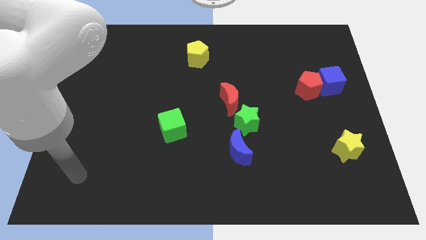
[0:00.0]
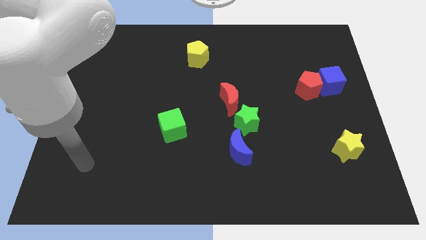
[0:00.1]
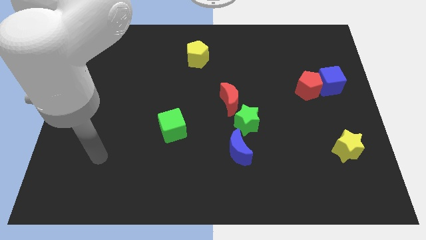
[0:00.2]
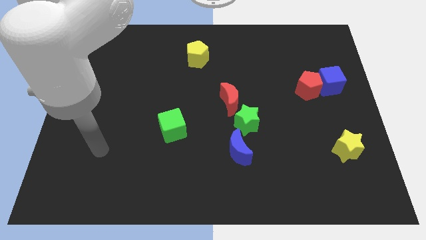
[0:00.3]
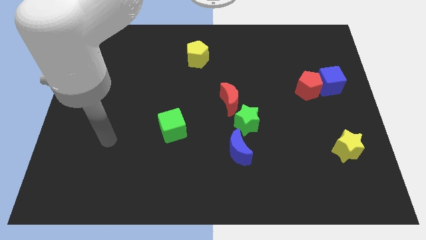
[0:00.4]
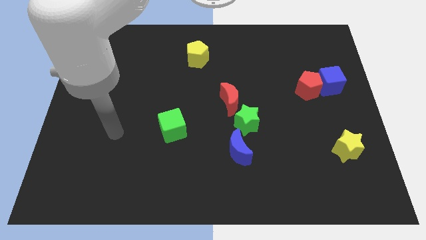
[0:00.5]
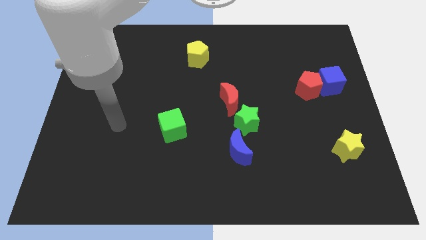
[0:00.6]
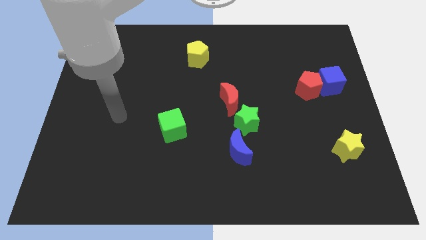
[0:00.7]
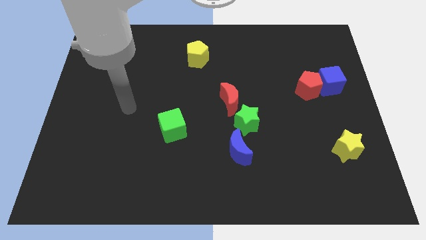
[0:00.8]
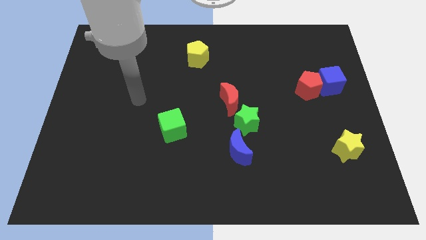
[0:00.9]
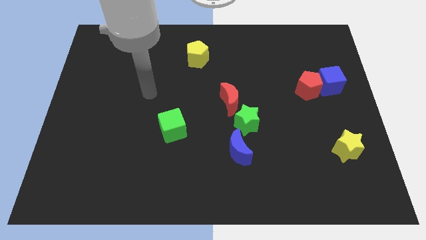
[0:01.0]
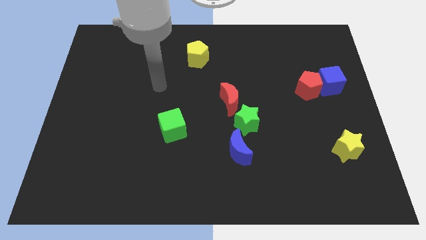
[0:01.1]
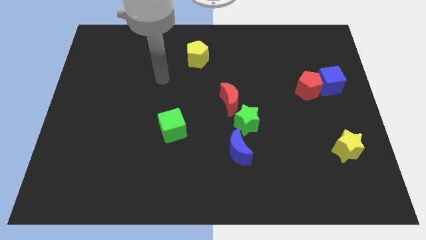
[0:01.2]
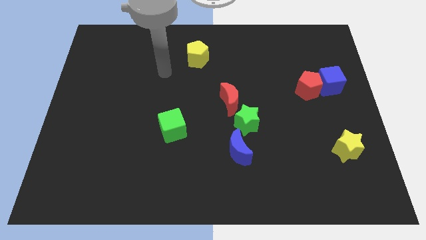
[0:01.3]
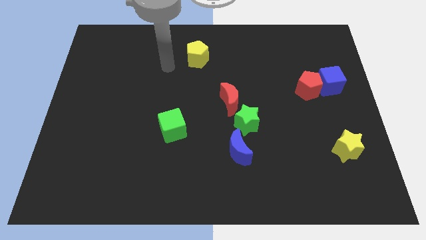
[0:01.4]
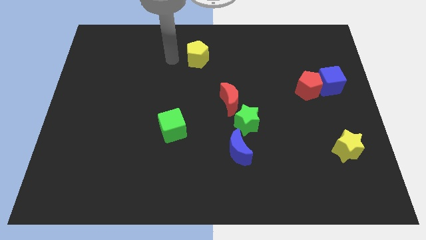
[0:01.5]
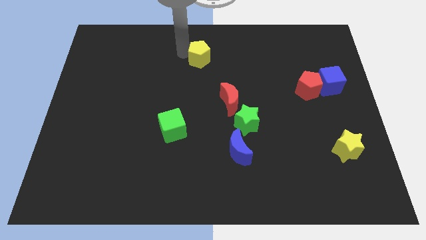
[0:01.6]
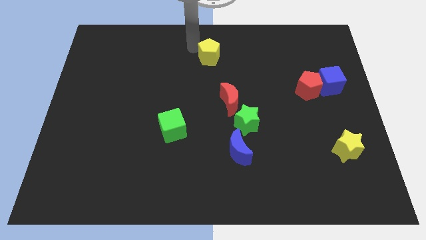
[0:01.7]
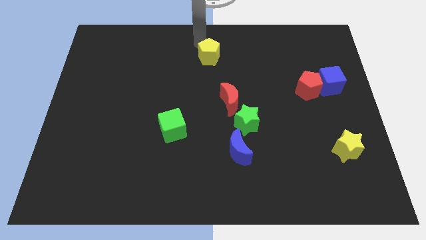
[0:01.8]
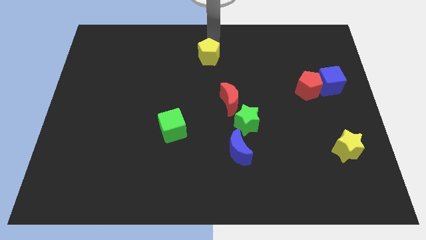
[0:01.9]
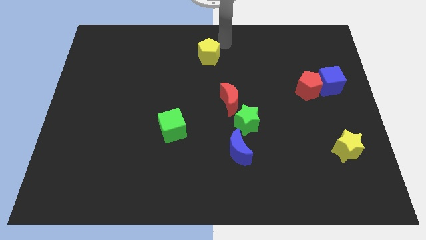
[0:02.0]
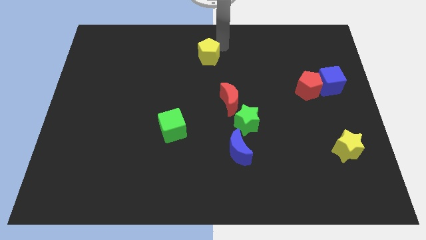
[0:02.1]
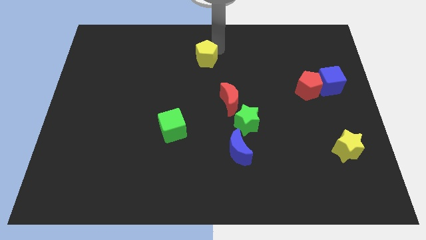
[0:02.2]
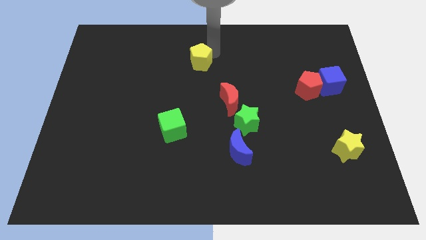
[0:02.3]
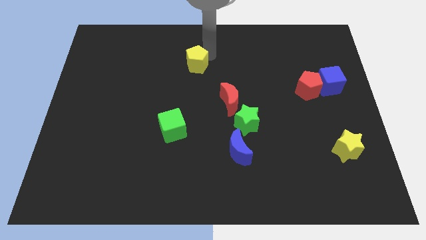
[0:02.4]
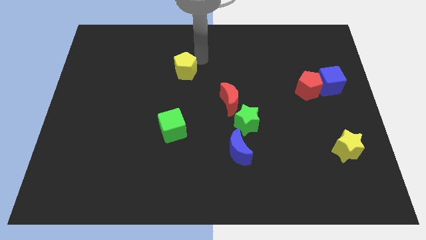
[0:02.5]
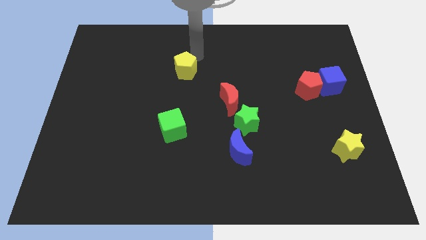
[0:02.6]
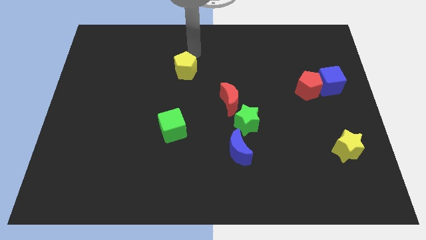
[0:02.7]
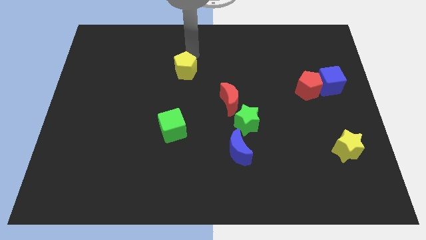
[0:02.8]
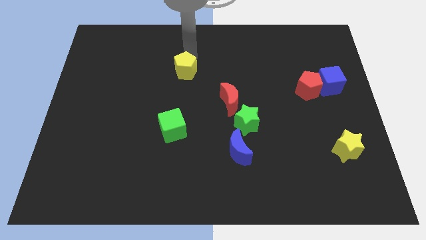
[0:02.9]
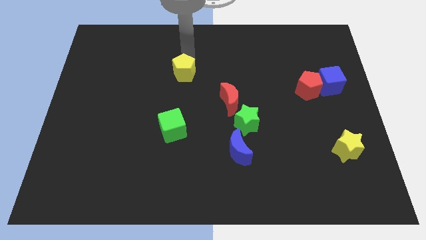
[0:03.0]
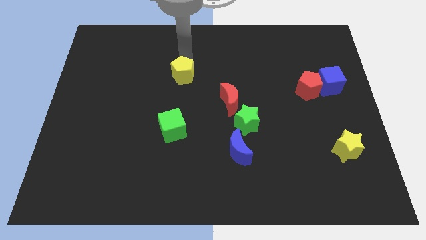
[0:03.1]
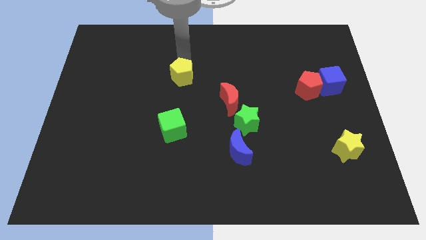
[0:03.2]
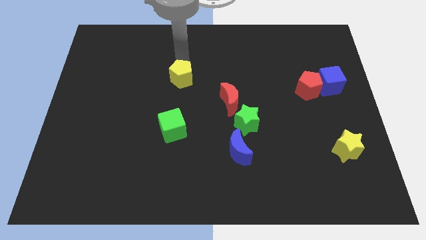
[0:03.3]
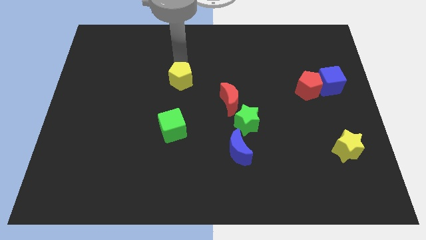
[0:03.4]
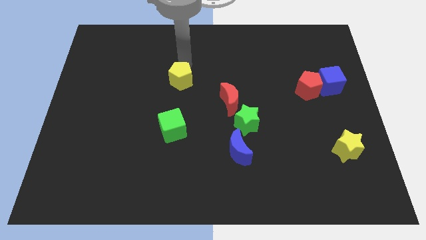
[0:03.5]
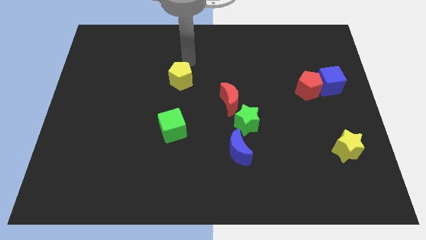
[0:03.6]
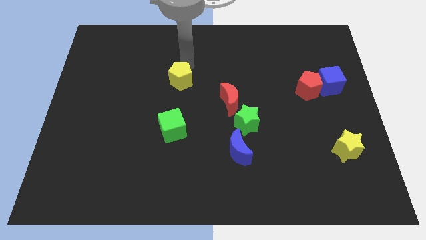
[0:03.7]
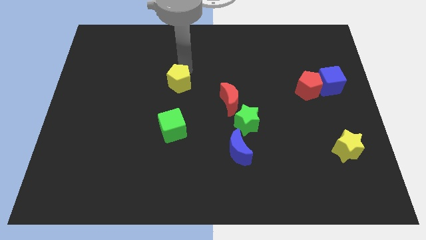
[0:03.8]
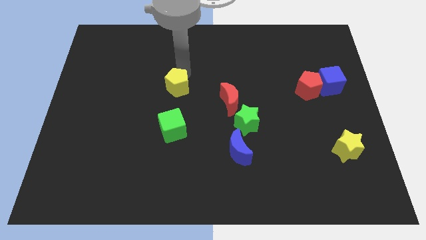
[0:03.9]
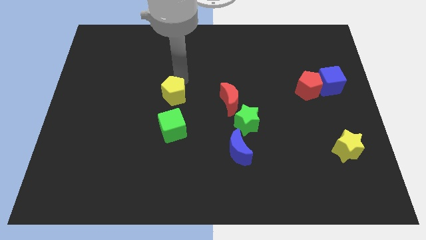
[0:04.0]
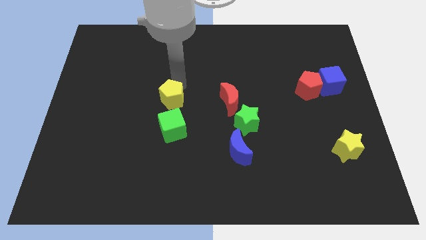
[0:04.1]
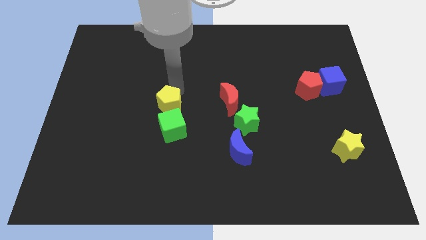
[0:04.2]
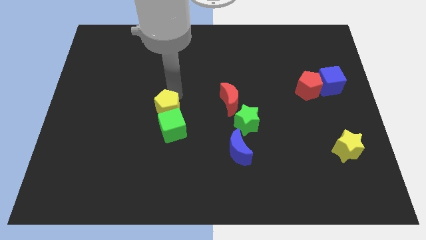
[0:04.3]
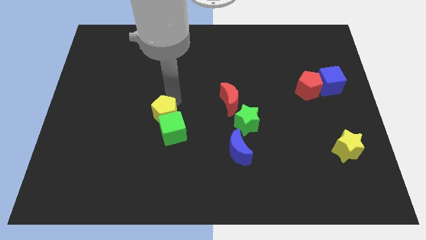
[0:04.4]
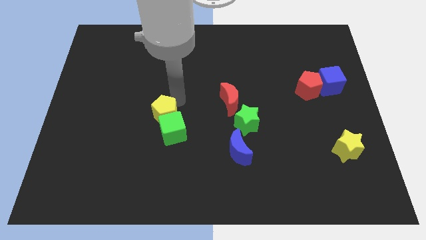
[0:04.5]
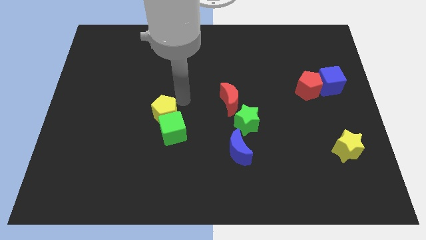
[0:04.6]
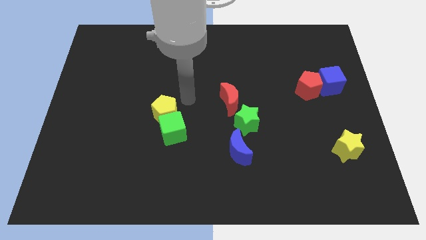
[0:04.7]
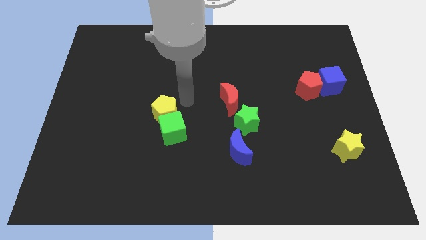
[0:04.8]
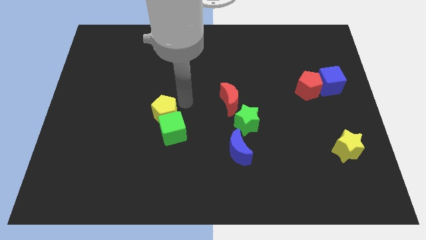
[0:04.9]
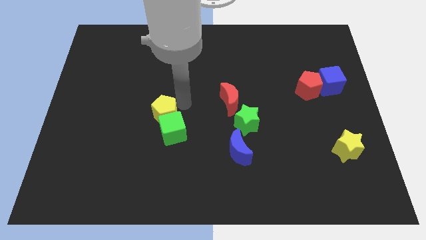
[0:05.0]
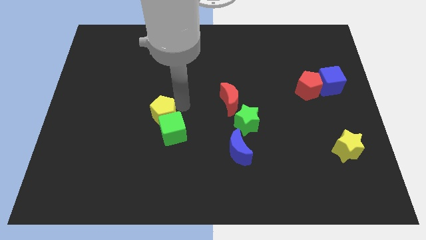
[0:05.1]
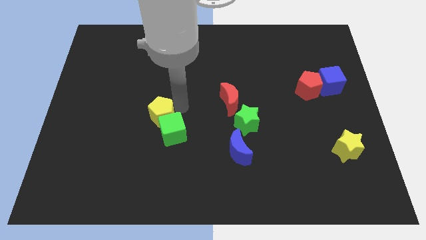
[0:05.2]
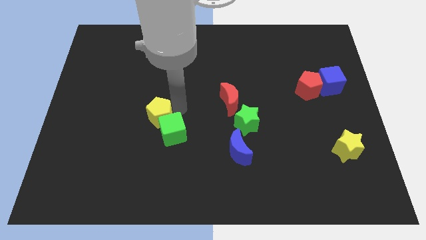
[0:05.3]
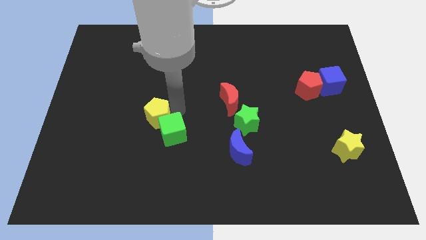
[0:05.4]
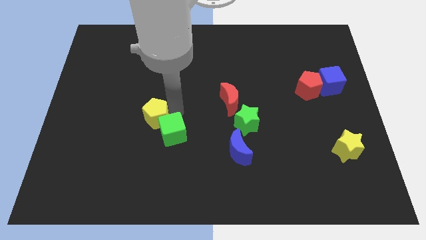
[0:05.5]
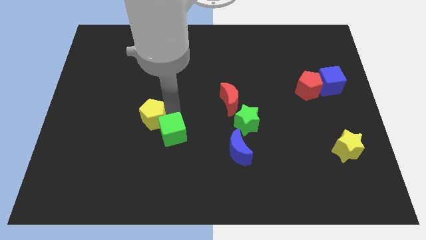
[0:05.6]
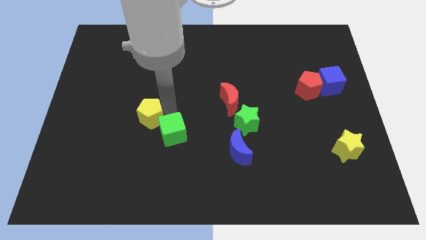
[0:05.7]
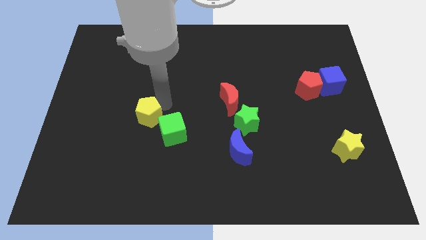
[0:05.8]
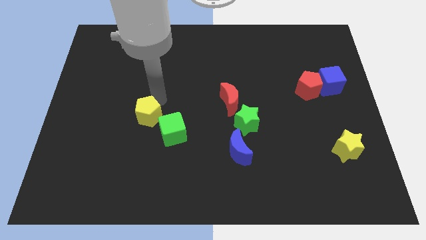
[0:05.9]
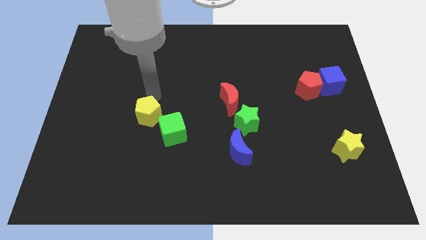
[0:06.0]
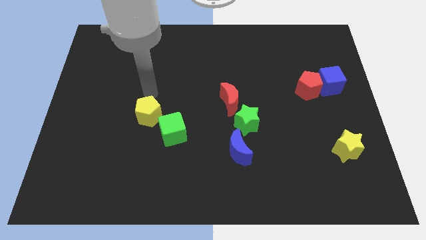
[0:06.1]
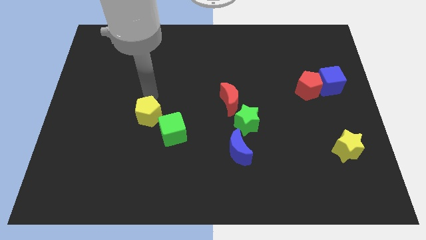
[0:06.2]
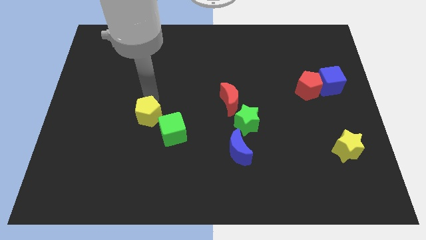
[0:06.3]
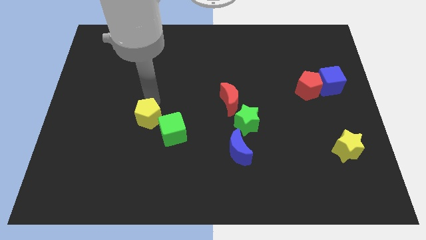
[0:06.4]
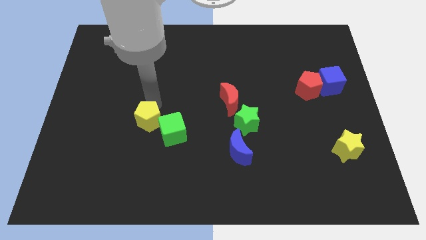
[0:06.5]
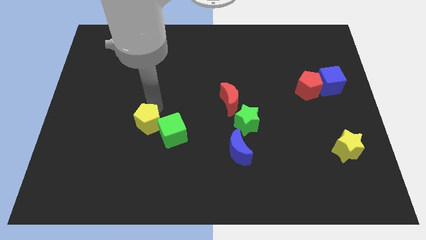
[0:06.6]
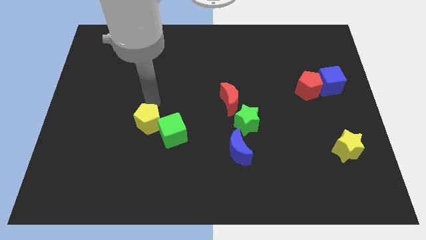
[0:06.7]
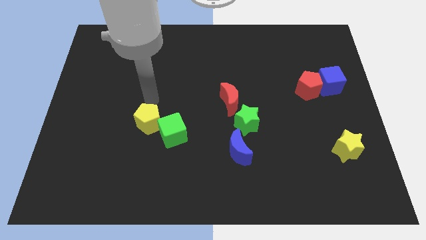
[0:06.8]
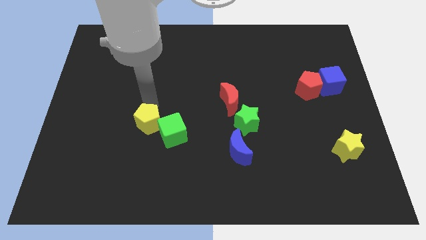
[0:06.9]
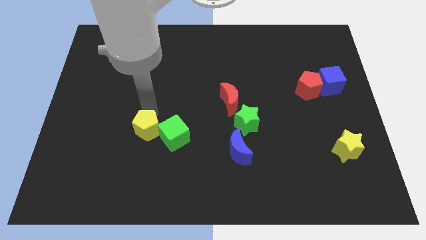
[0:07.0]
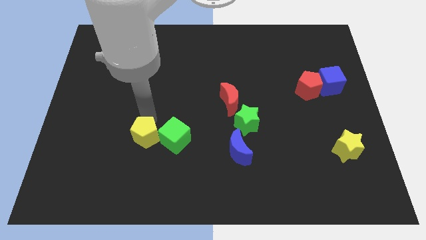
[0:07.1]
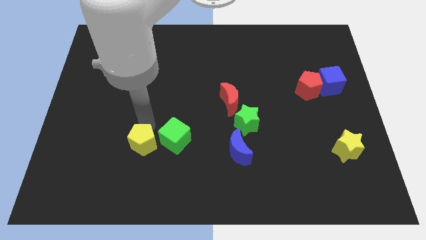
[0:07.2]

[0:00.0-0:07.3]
move the yellow pentagon to the bottom left of the green cube
